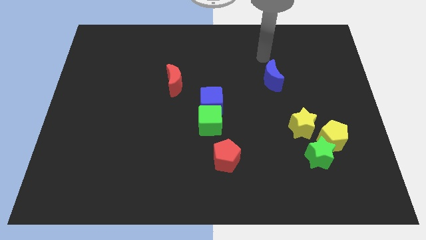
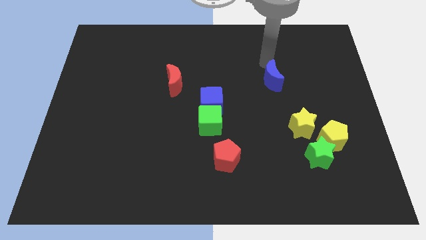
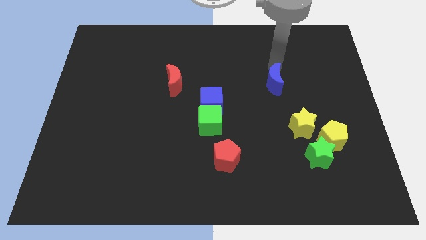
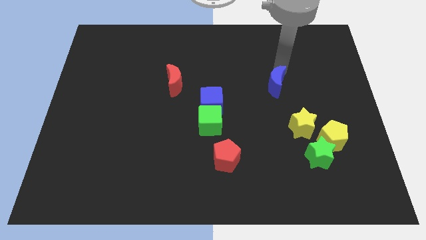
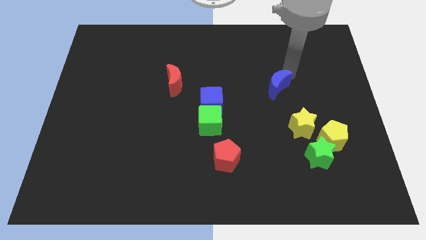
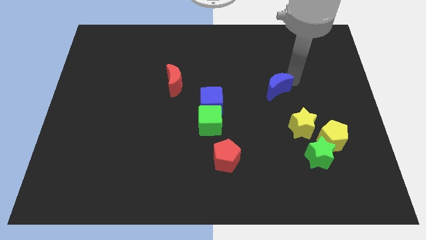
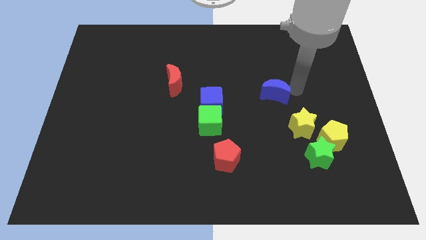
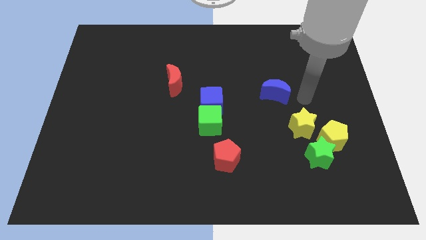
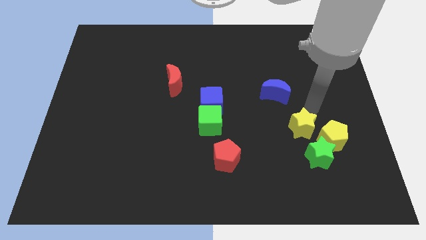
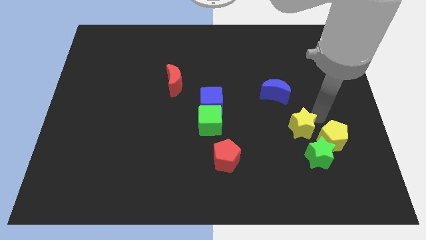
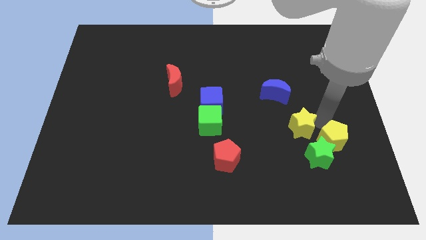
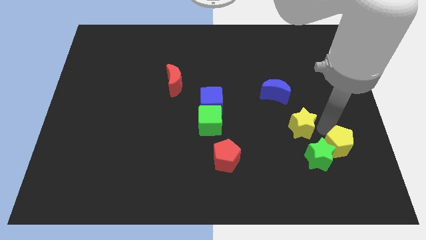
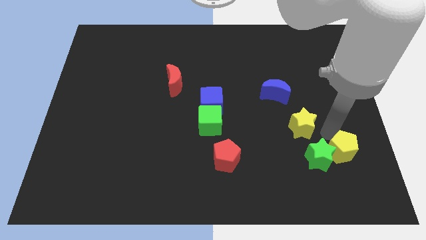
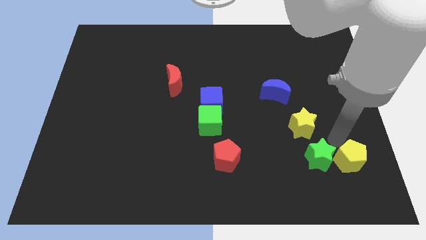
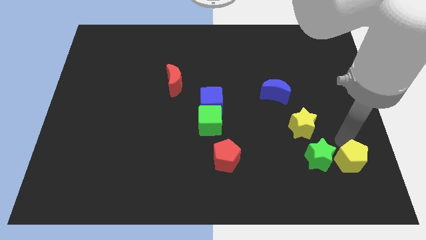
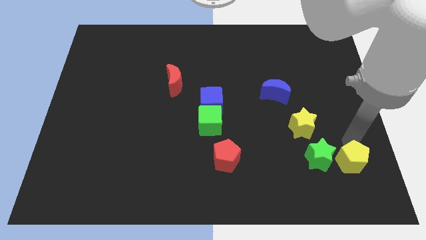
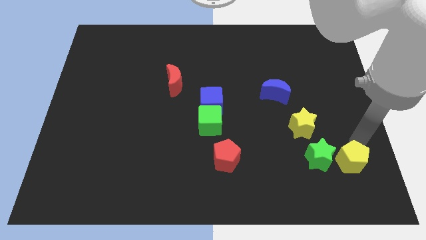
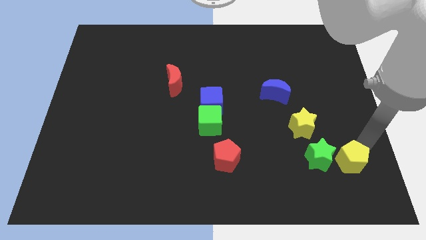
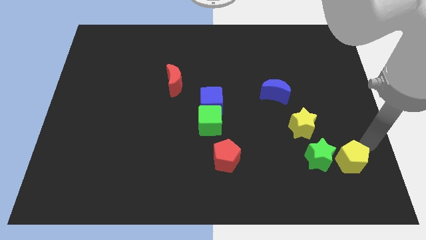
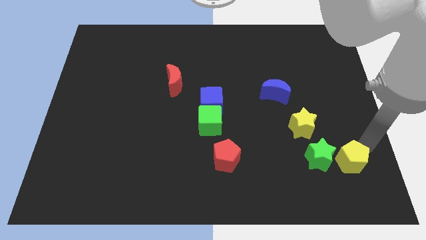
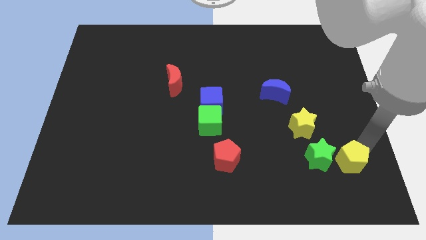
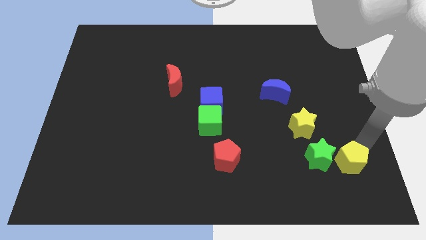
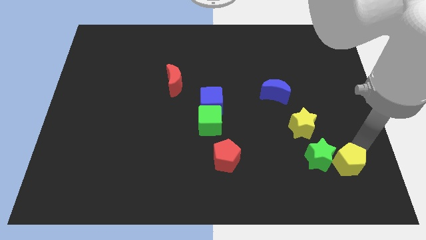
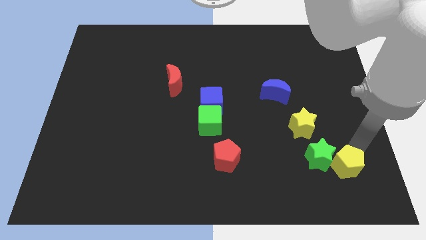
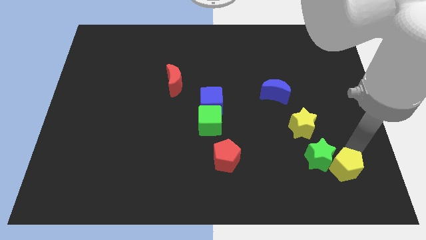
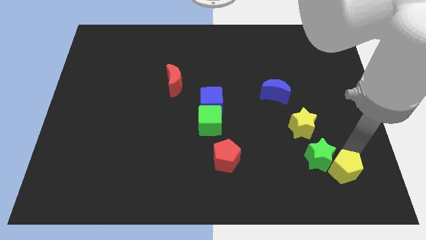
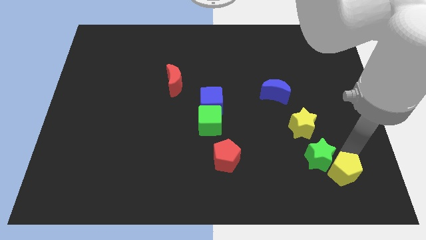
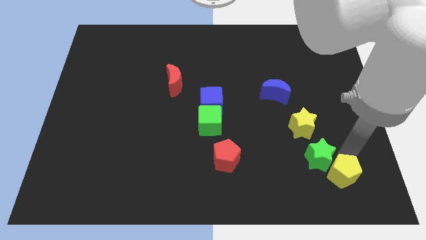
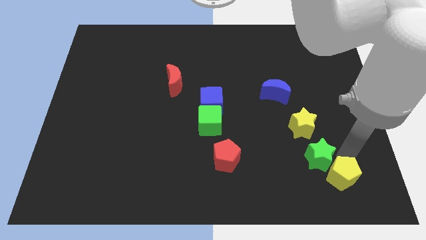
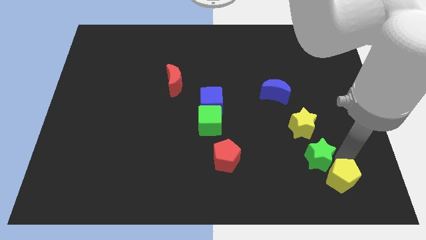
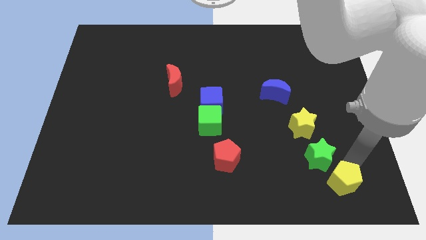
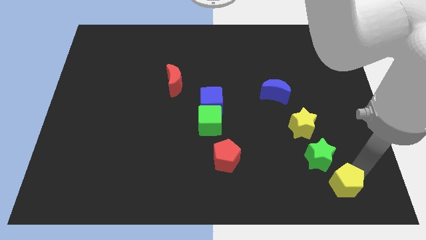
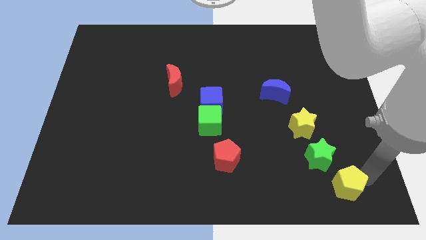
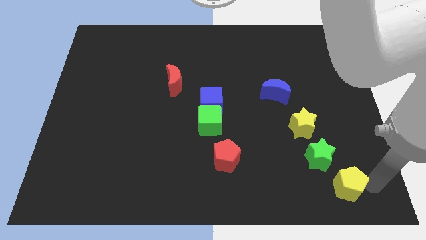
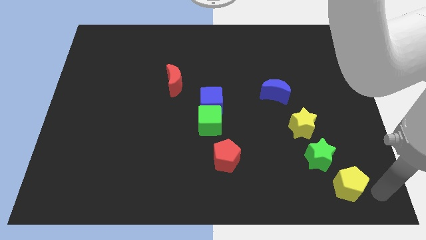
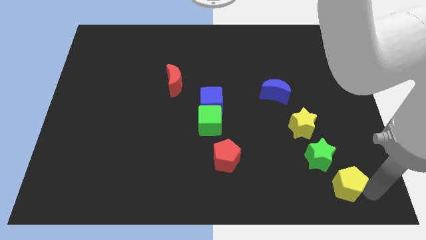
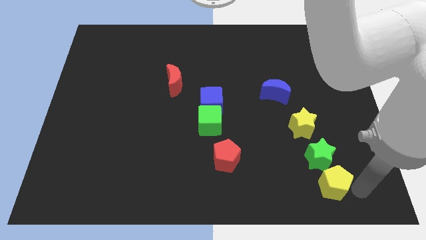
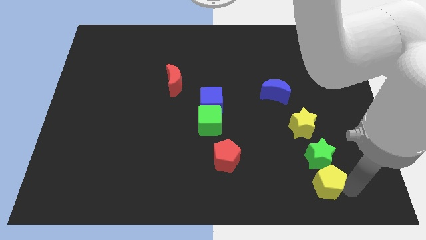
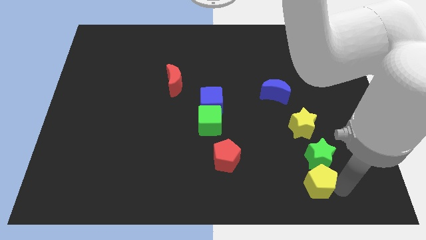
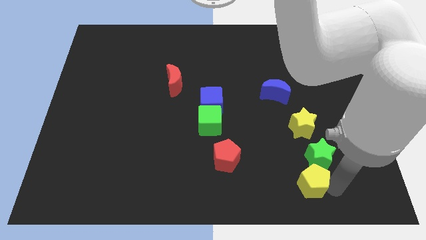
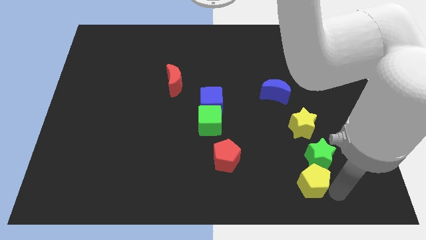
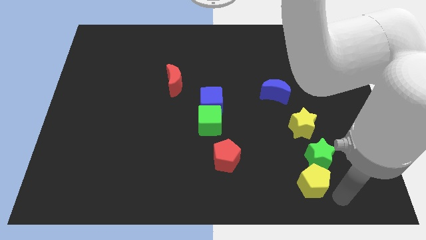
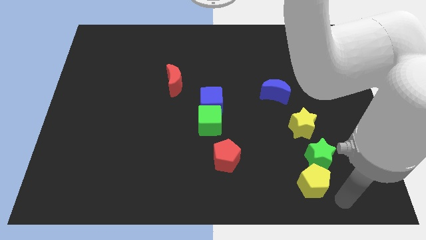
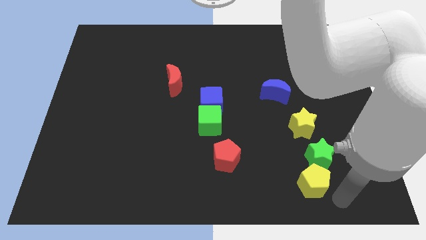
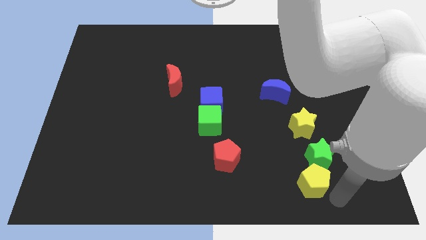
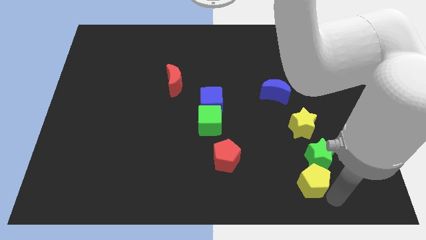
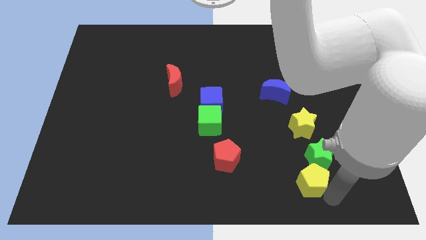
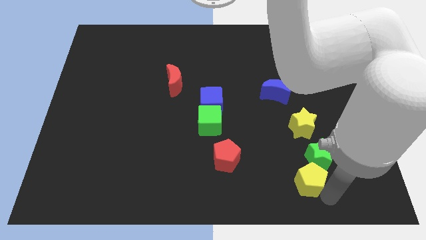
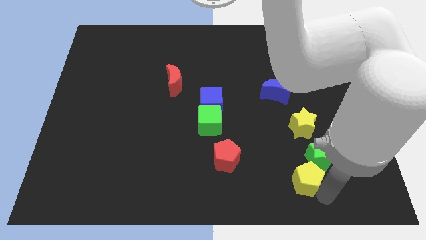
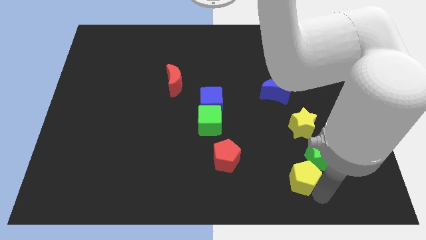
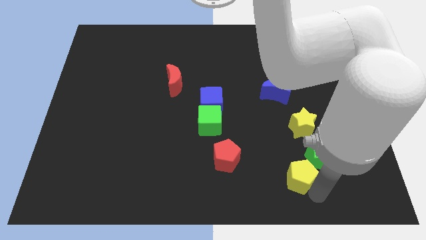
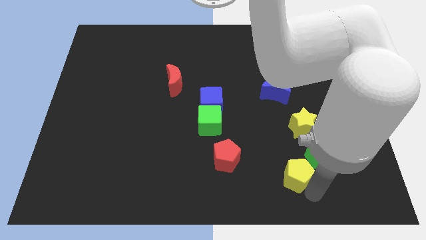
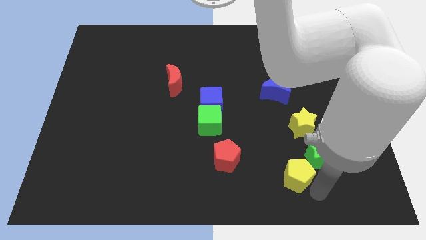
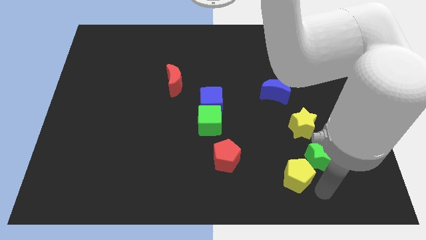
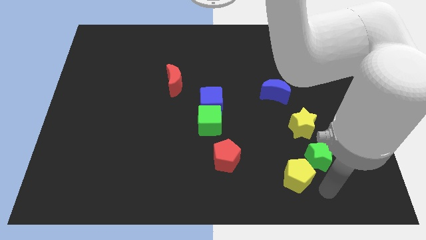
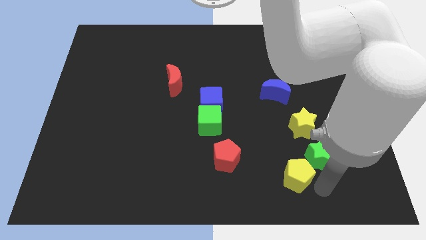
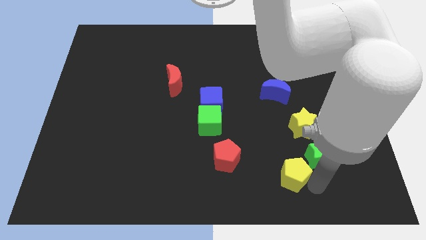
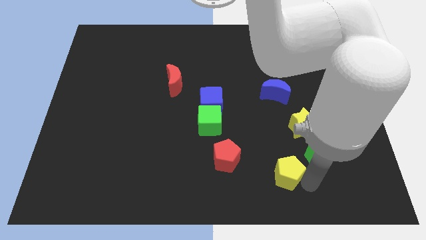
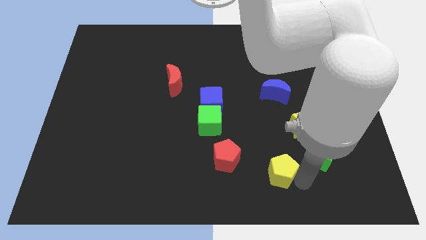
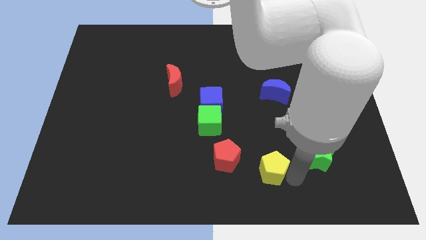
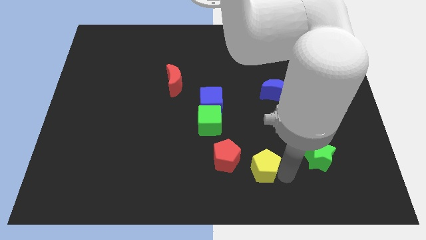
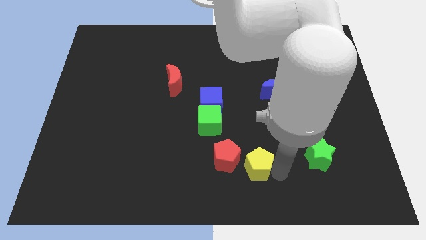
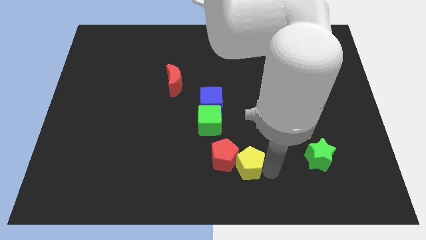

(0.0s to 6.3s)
move the yellow pentagon towards the red pentagon
